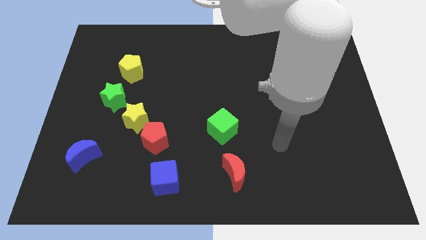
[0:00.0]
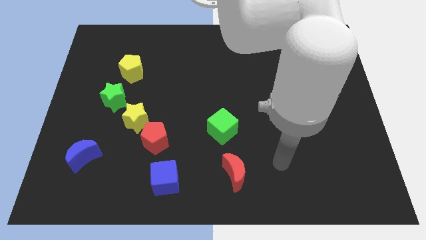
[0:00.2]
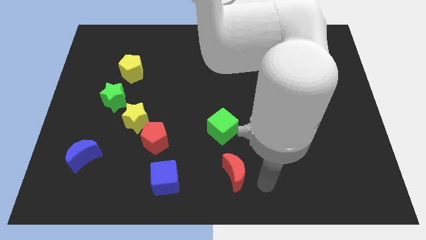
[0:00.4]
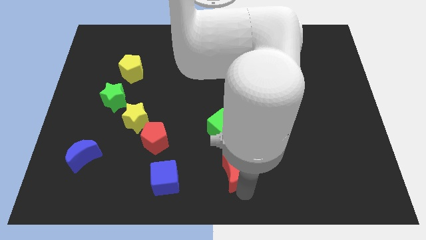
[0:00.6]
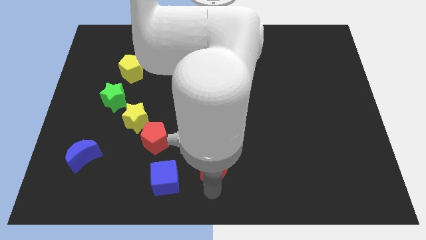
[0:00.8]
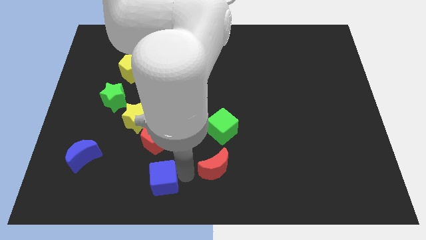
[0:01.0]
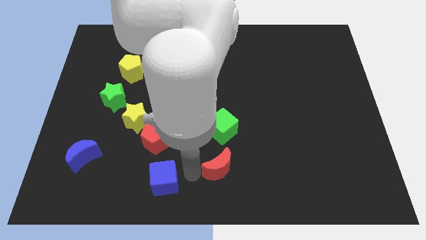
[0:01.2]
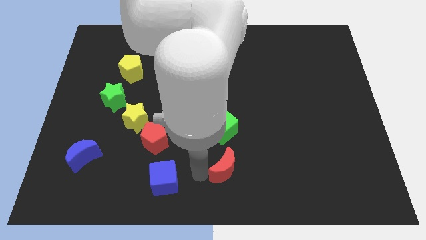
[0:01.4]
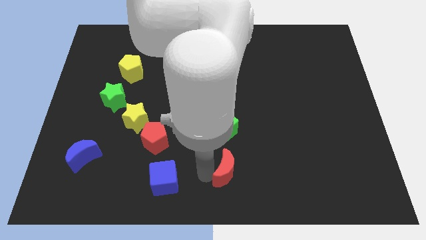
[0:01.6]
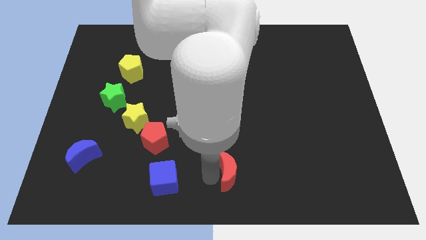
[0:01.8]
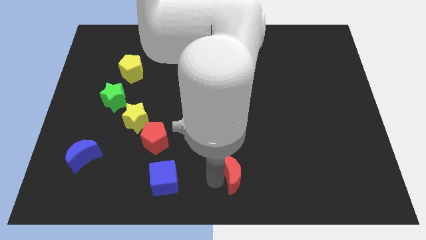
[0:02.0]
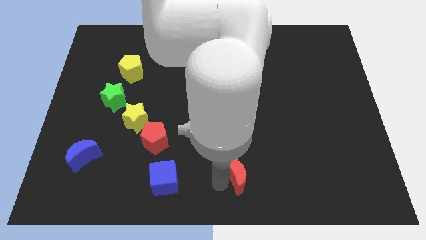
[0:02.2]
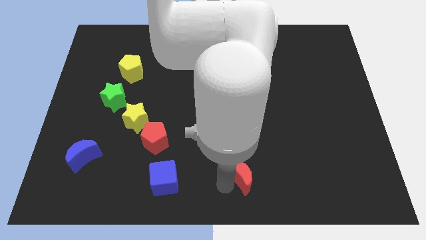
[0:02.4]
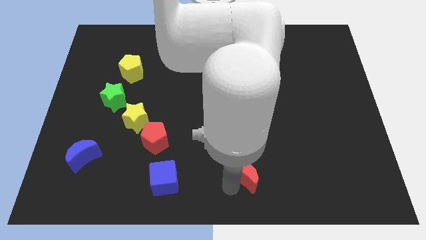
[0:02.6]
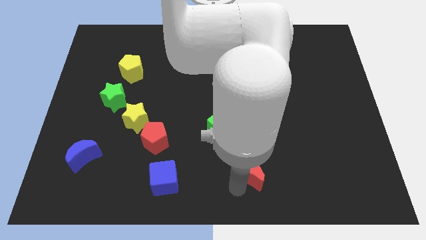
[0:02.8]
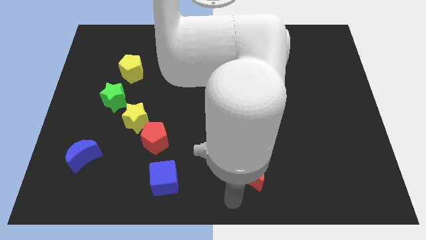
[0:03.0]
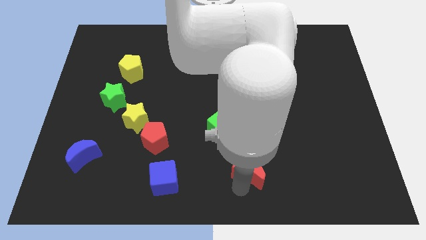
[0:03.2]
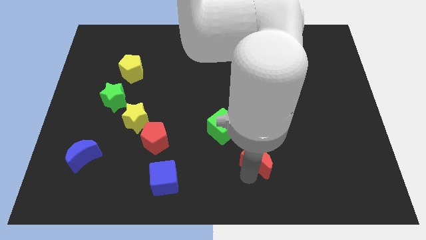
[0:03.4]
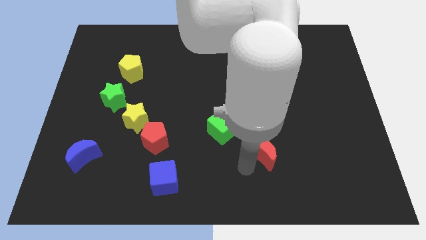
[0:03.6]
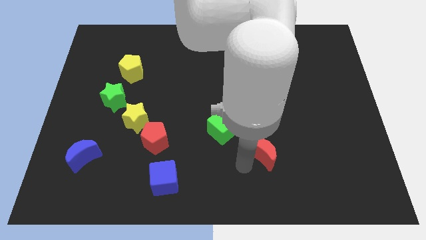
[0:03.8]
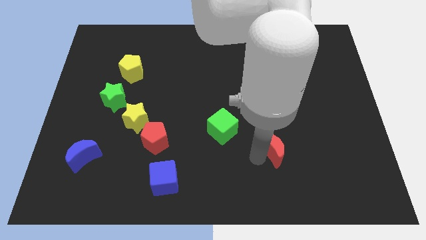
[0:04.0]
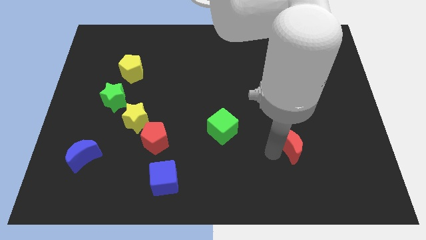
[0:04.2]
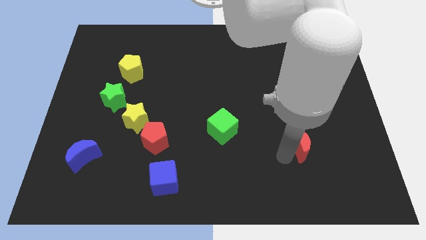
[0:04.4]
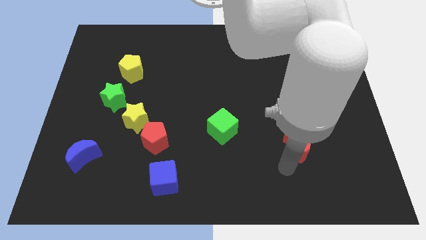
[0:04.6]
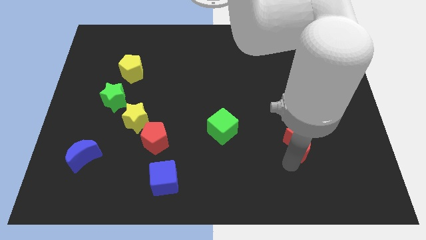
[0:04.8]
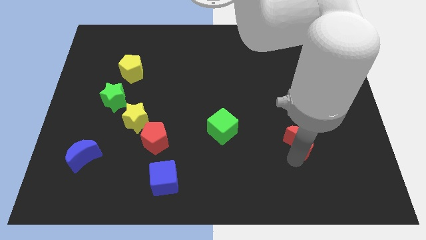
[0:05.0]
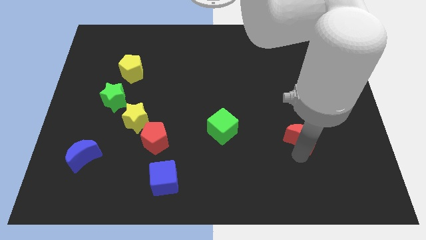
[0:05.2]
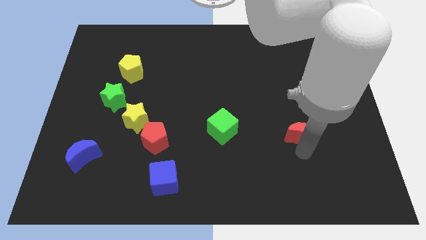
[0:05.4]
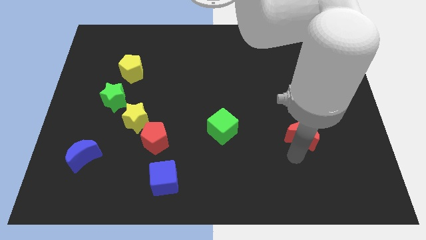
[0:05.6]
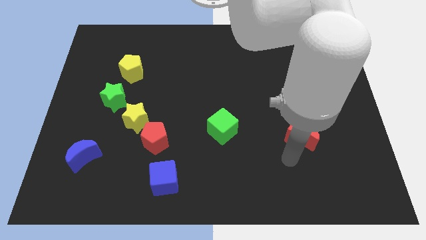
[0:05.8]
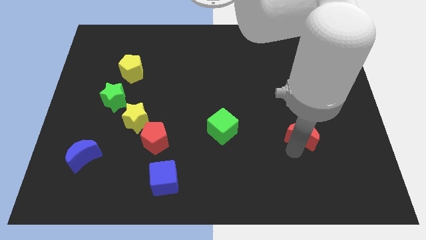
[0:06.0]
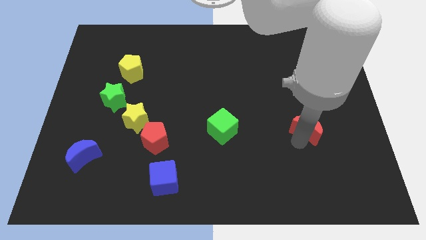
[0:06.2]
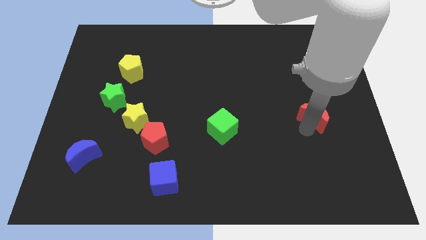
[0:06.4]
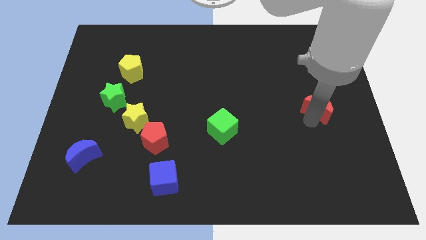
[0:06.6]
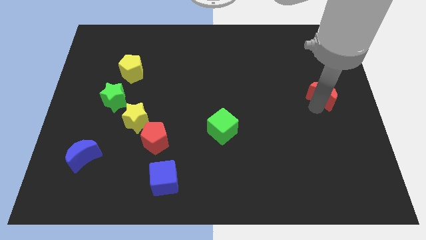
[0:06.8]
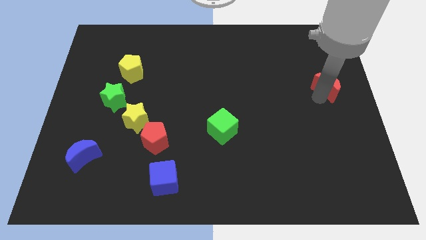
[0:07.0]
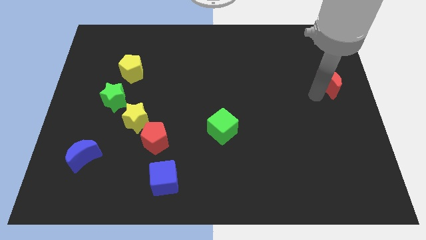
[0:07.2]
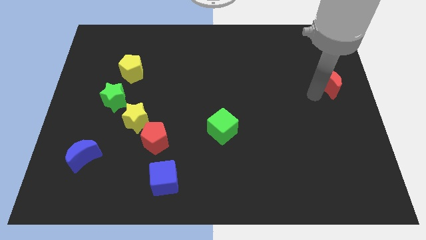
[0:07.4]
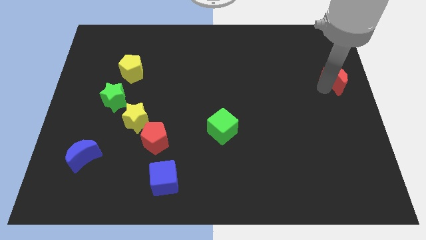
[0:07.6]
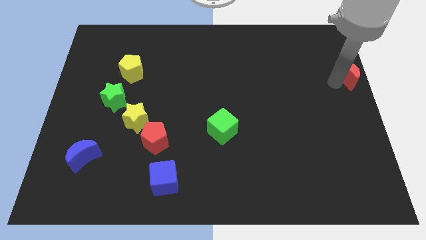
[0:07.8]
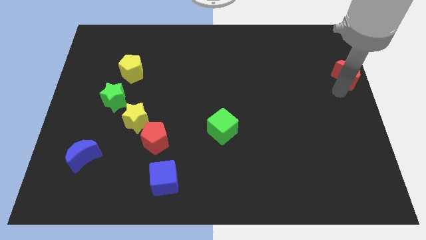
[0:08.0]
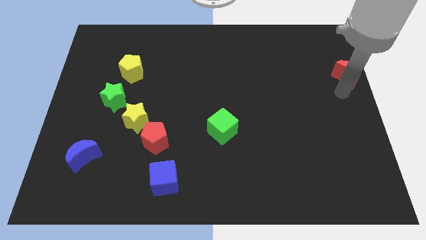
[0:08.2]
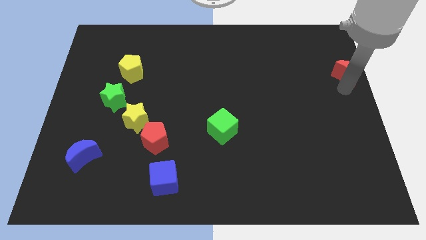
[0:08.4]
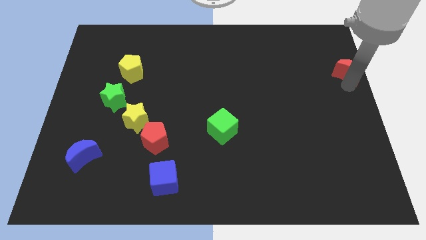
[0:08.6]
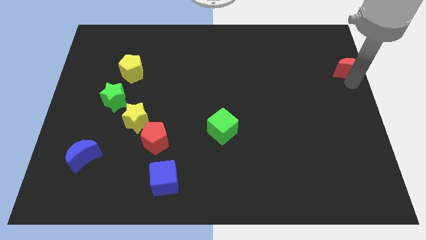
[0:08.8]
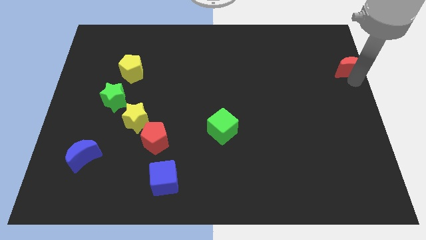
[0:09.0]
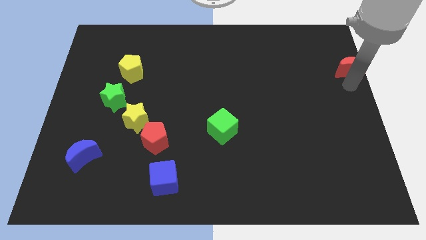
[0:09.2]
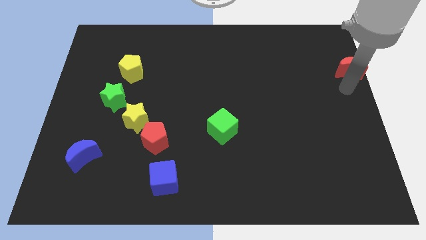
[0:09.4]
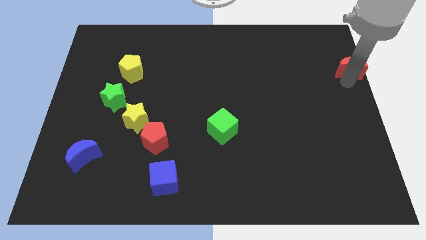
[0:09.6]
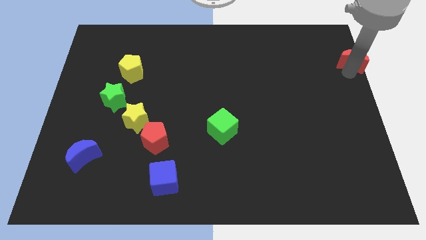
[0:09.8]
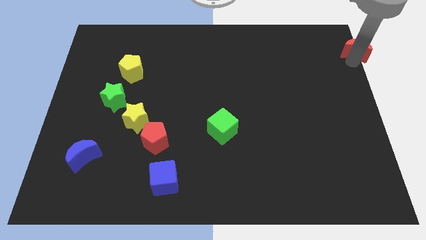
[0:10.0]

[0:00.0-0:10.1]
put the red moon to the top right corner

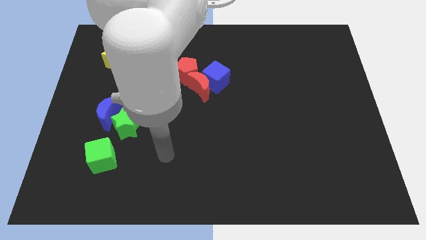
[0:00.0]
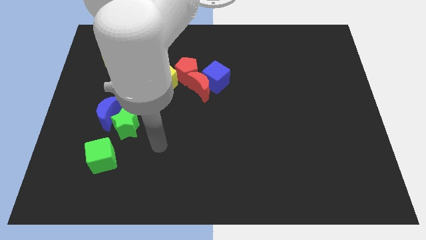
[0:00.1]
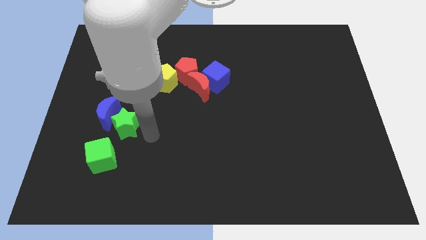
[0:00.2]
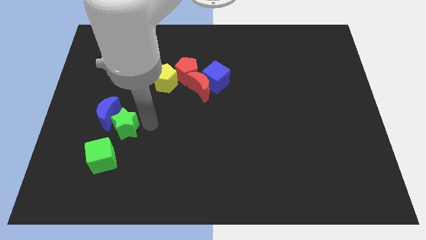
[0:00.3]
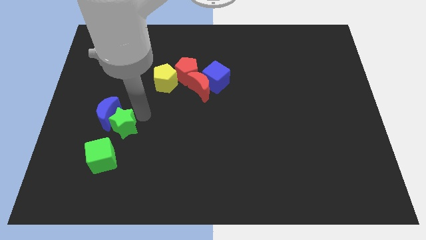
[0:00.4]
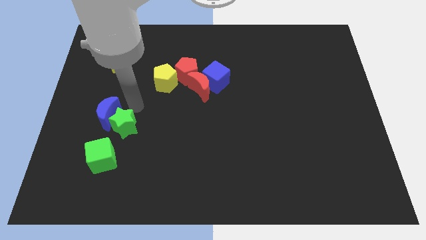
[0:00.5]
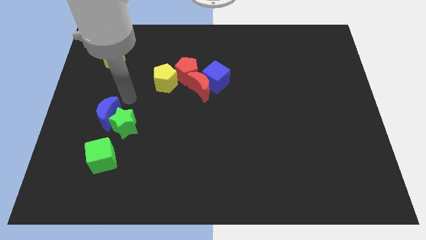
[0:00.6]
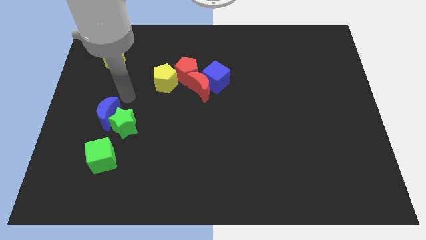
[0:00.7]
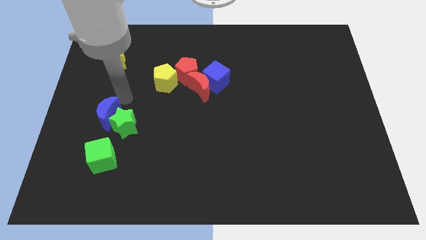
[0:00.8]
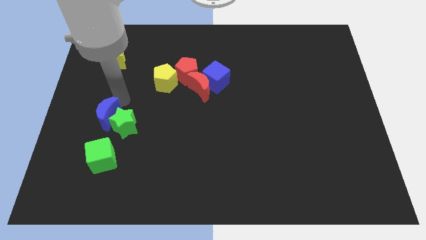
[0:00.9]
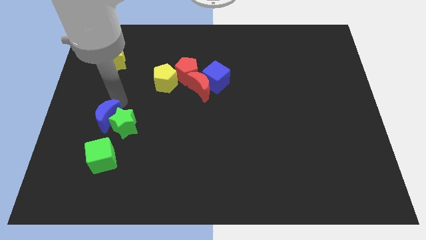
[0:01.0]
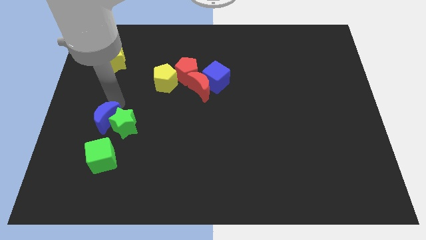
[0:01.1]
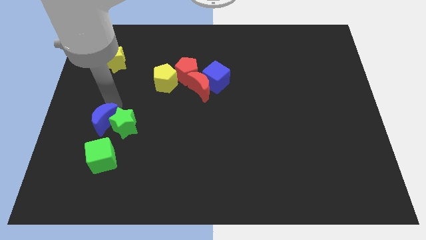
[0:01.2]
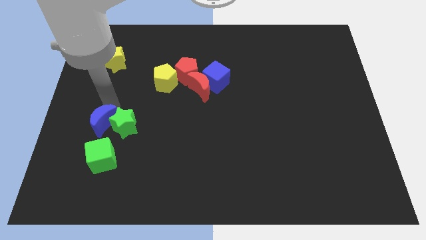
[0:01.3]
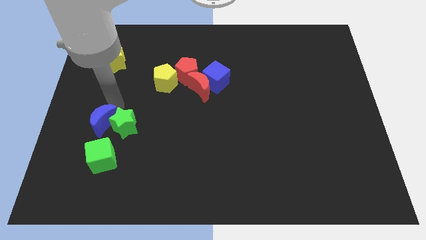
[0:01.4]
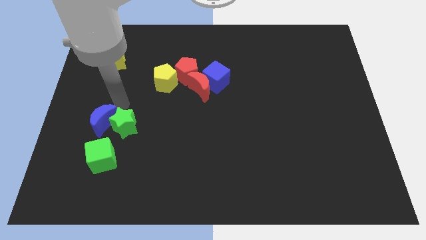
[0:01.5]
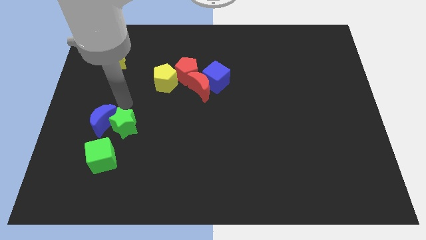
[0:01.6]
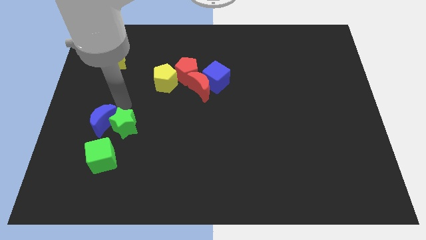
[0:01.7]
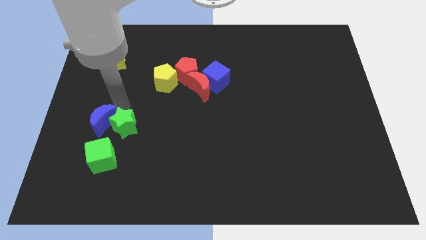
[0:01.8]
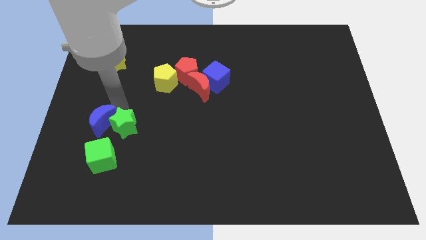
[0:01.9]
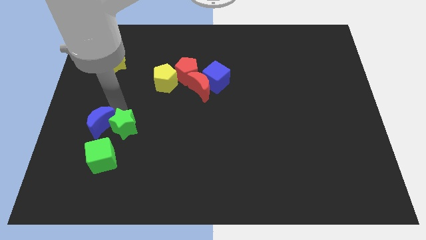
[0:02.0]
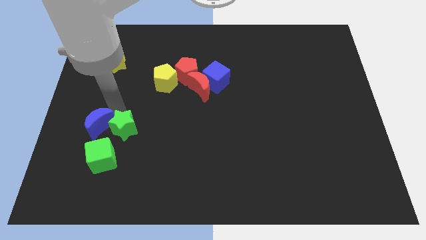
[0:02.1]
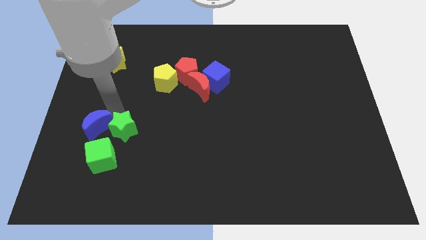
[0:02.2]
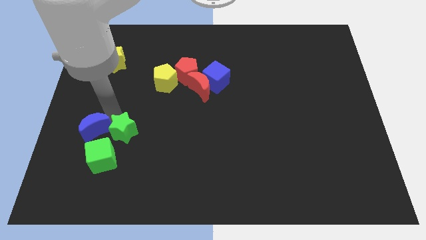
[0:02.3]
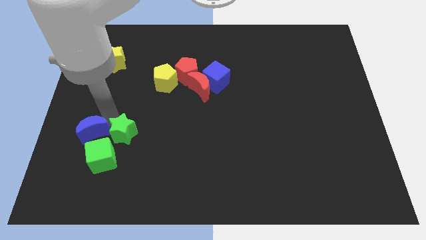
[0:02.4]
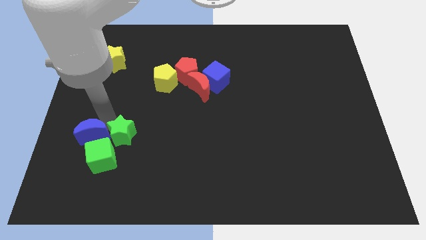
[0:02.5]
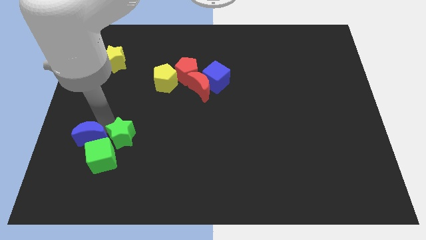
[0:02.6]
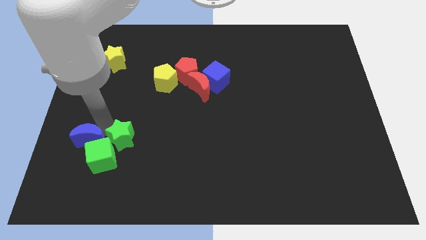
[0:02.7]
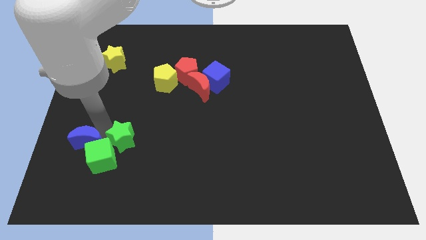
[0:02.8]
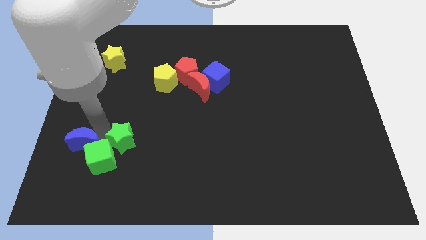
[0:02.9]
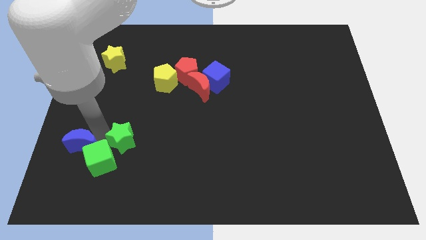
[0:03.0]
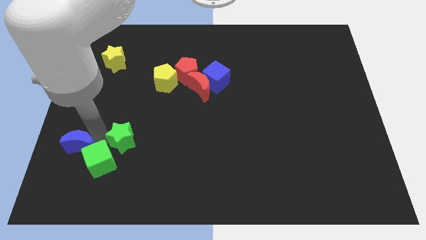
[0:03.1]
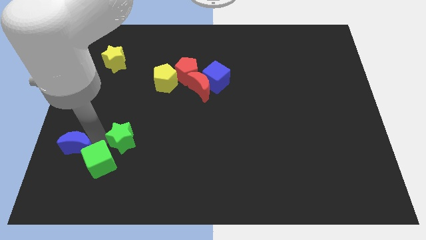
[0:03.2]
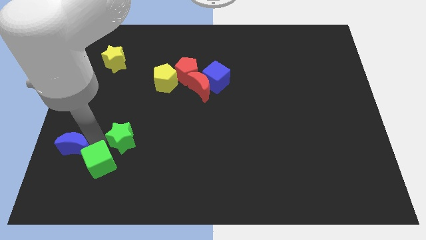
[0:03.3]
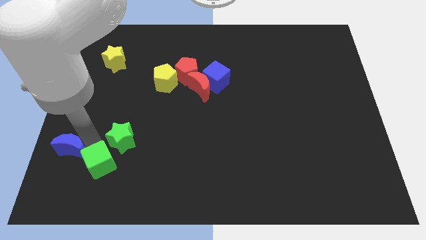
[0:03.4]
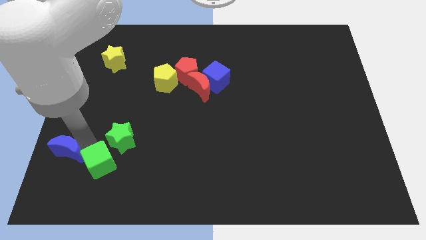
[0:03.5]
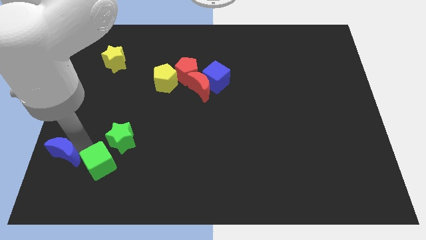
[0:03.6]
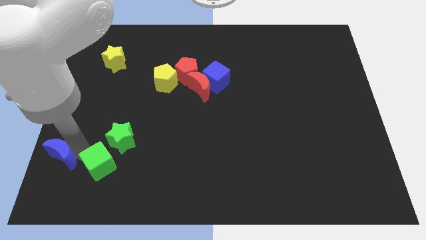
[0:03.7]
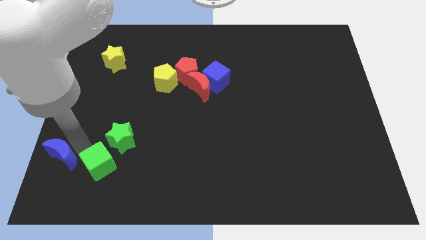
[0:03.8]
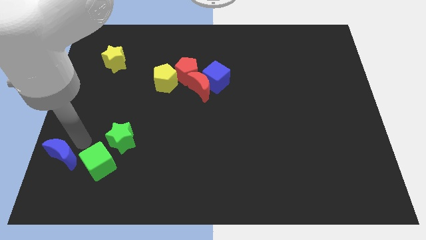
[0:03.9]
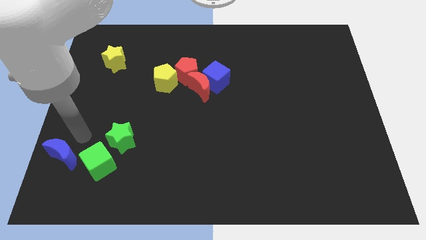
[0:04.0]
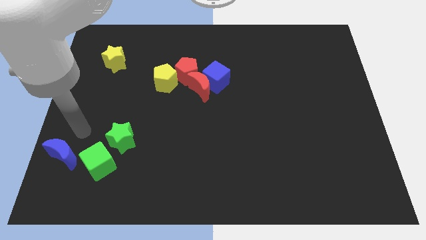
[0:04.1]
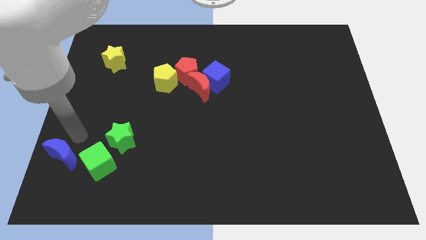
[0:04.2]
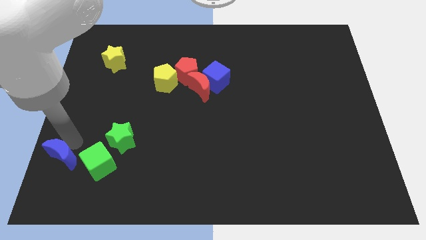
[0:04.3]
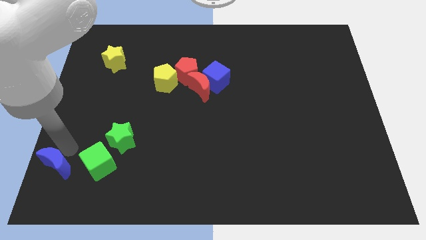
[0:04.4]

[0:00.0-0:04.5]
move the blue moon to the lower left corner
